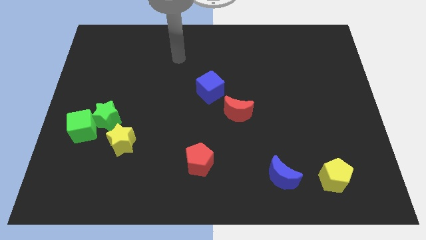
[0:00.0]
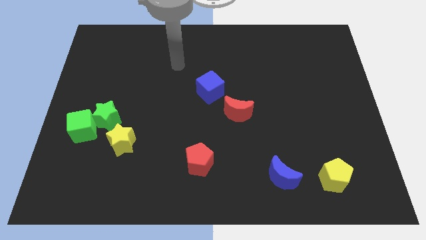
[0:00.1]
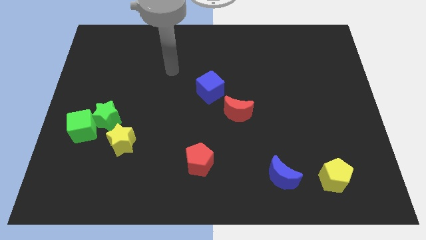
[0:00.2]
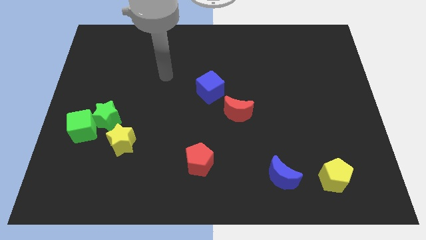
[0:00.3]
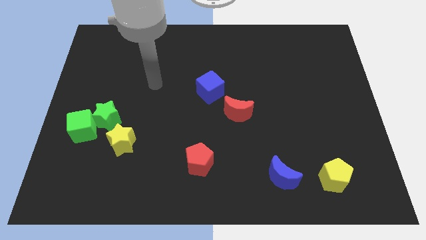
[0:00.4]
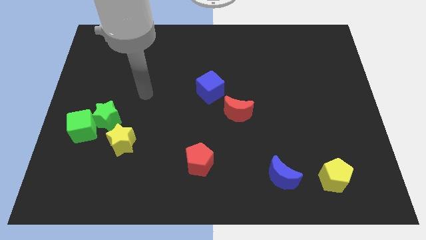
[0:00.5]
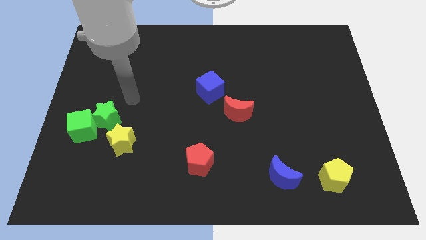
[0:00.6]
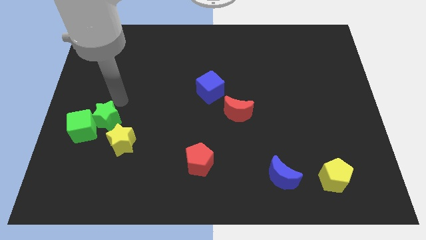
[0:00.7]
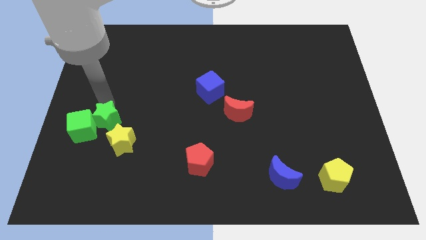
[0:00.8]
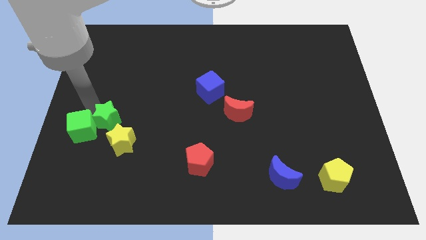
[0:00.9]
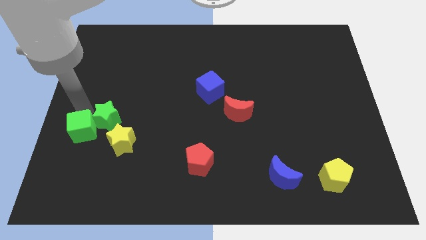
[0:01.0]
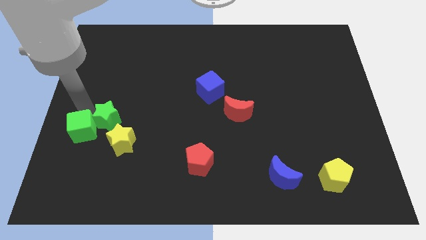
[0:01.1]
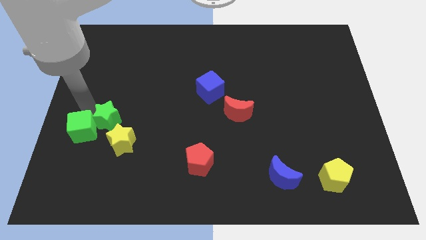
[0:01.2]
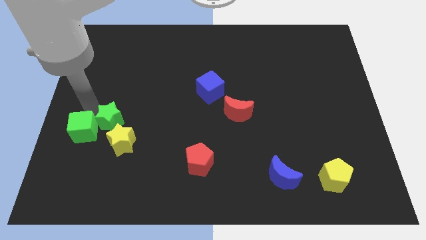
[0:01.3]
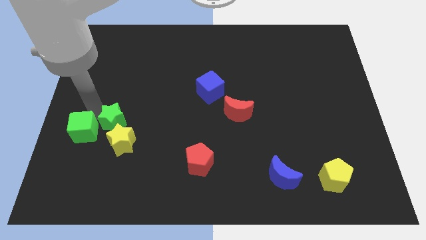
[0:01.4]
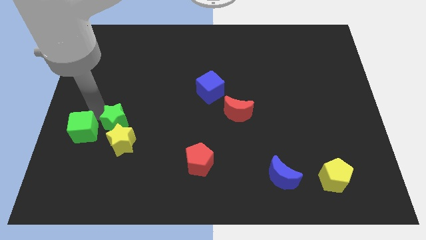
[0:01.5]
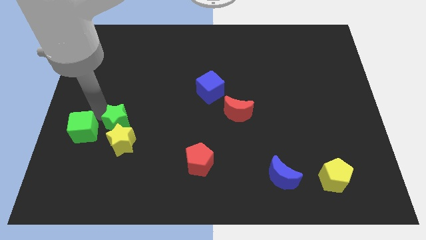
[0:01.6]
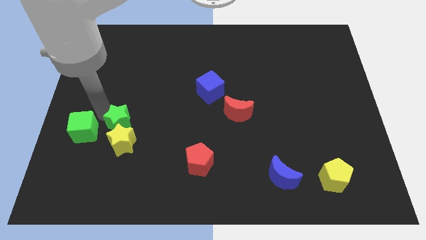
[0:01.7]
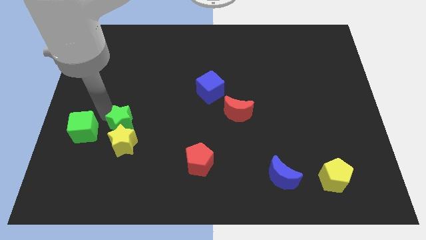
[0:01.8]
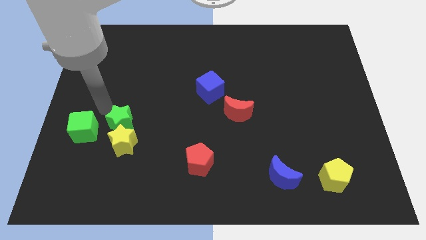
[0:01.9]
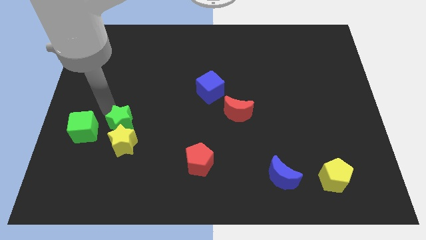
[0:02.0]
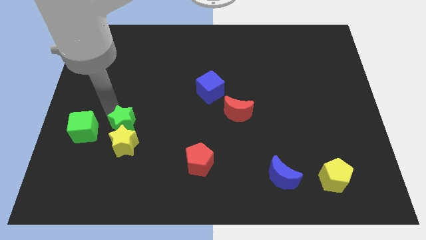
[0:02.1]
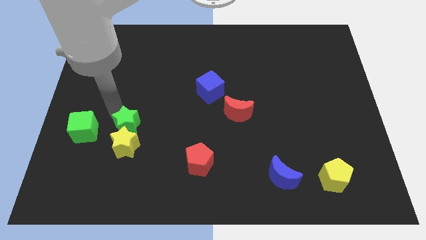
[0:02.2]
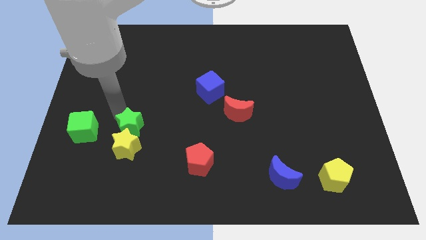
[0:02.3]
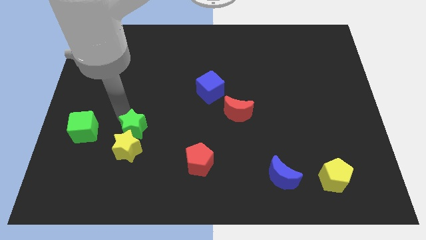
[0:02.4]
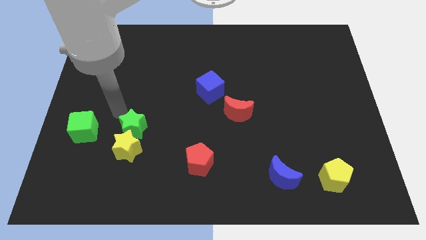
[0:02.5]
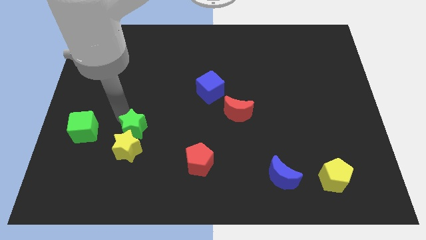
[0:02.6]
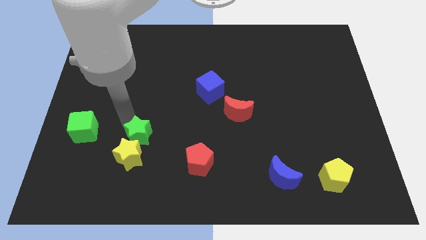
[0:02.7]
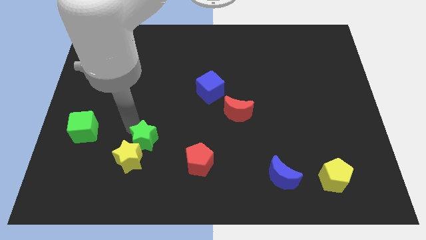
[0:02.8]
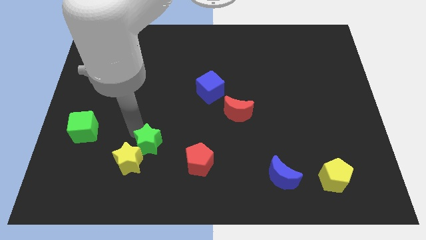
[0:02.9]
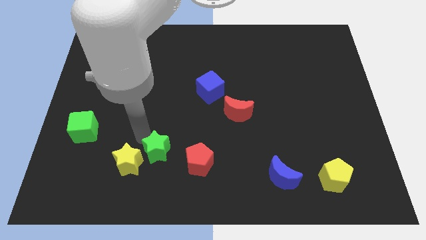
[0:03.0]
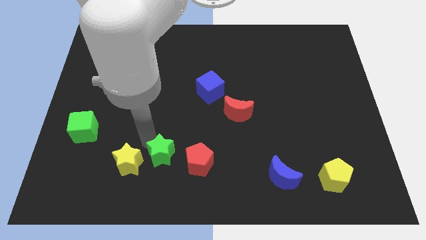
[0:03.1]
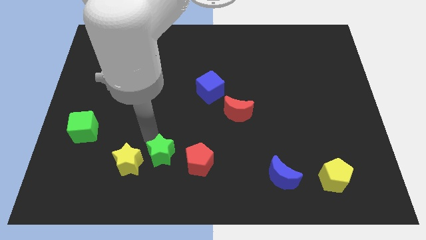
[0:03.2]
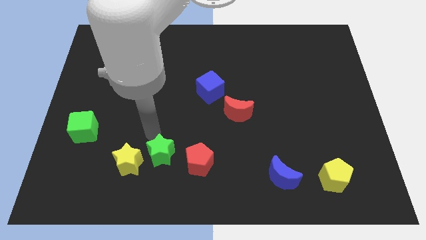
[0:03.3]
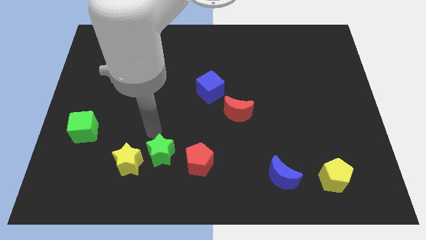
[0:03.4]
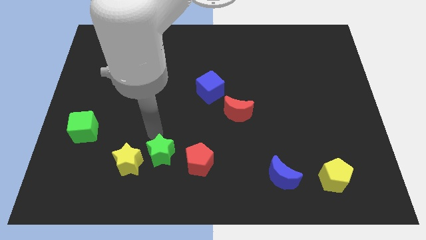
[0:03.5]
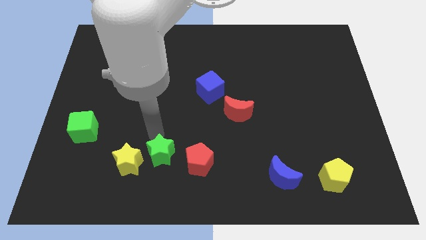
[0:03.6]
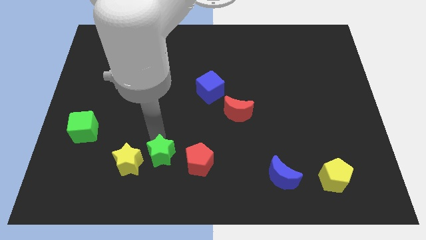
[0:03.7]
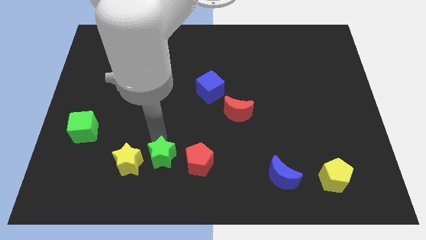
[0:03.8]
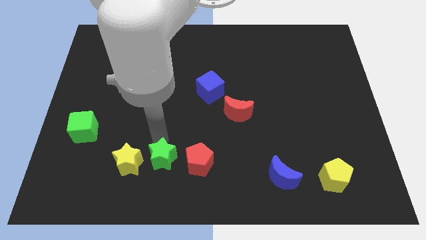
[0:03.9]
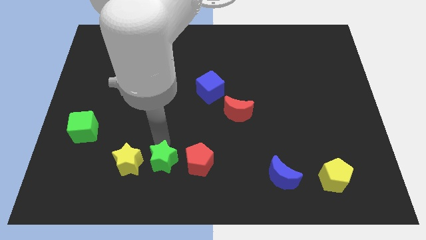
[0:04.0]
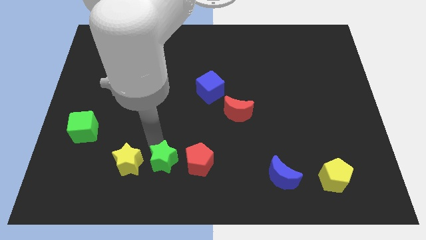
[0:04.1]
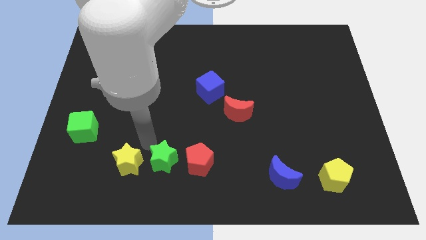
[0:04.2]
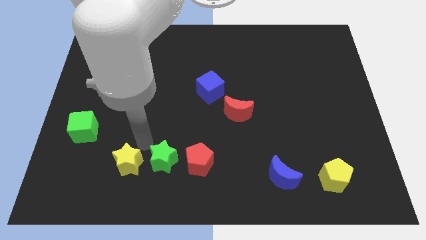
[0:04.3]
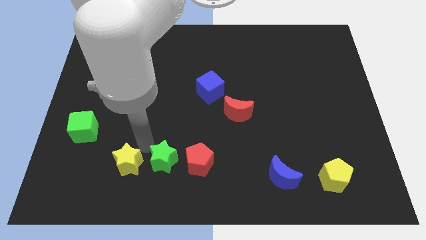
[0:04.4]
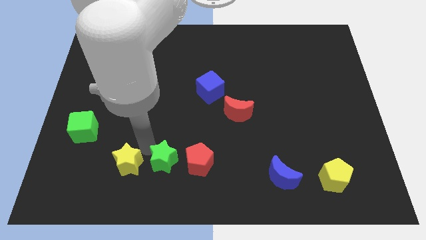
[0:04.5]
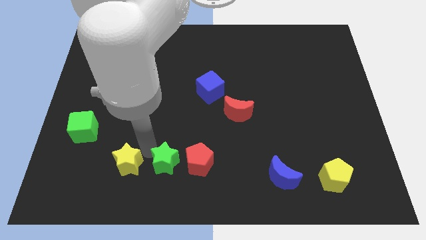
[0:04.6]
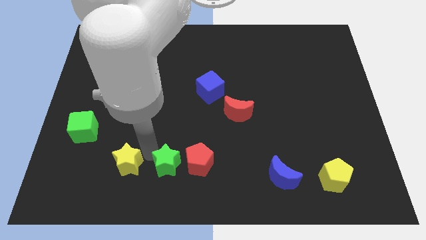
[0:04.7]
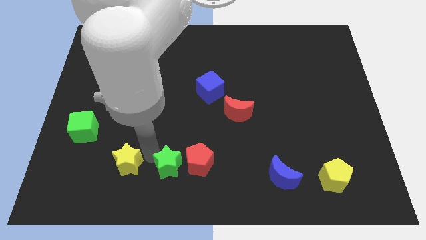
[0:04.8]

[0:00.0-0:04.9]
put the green star to the bottom

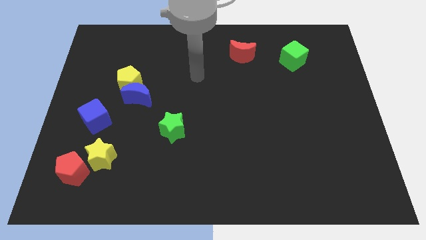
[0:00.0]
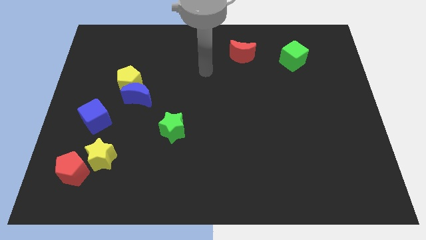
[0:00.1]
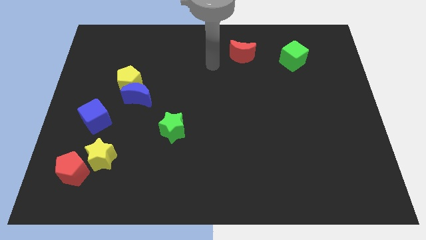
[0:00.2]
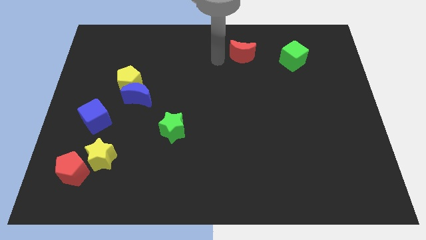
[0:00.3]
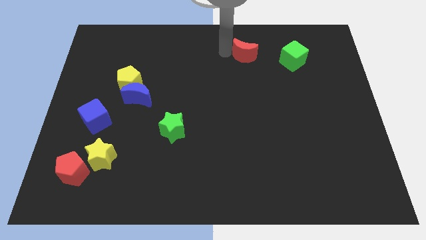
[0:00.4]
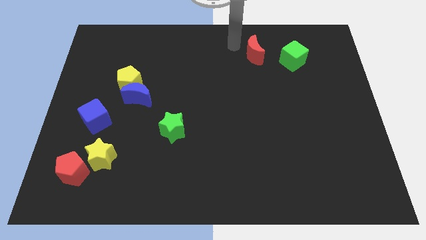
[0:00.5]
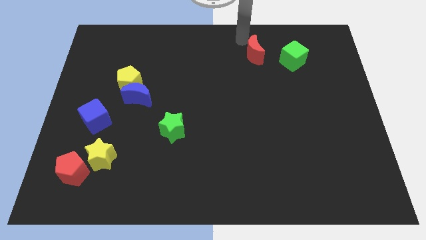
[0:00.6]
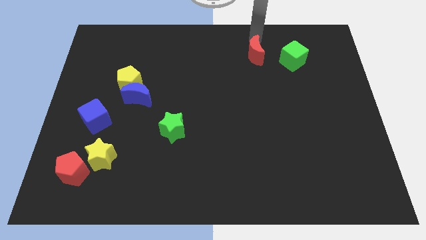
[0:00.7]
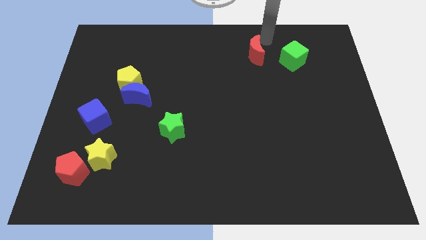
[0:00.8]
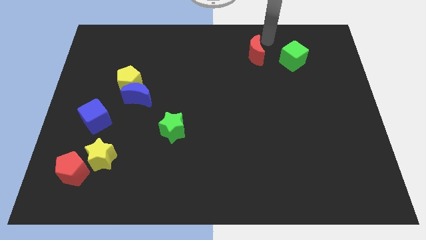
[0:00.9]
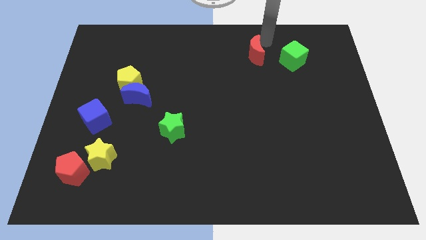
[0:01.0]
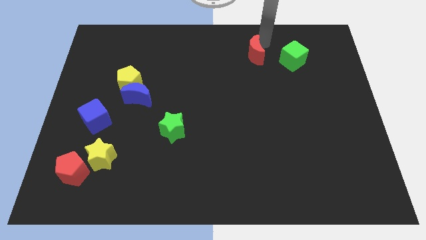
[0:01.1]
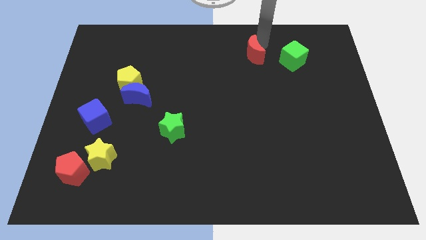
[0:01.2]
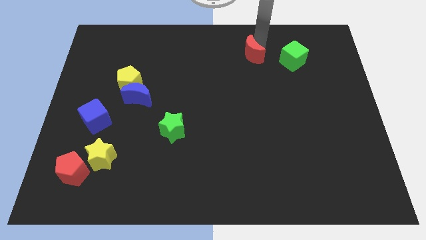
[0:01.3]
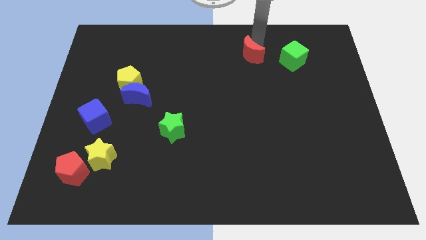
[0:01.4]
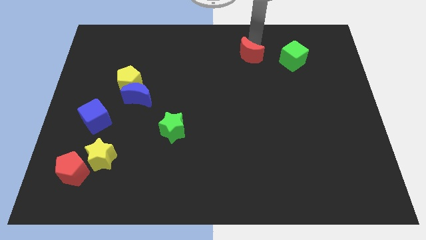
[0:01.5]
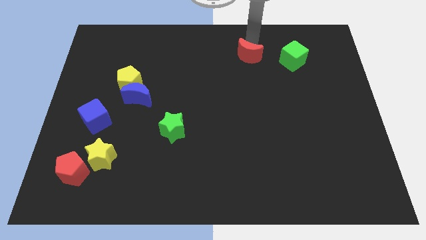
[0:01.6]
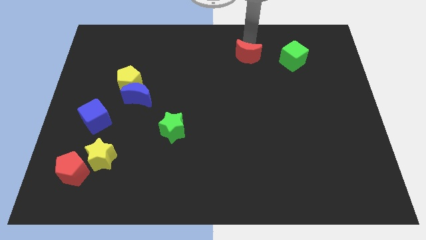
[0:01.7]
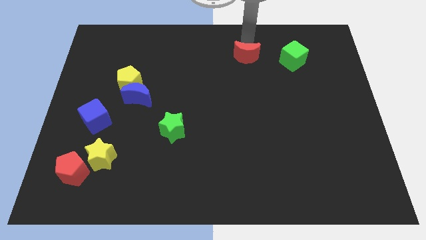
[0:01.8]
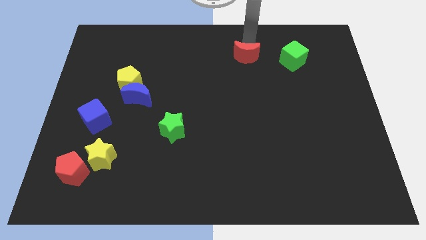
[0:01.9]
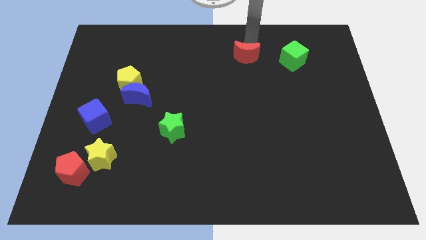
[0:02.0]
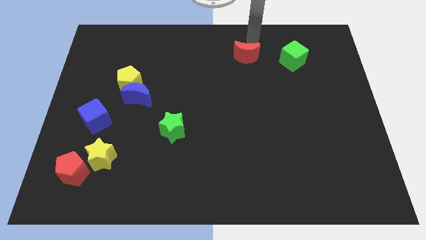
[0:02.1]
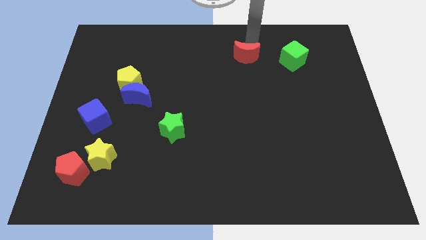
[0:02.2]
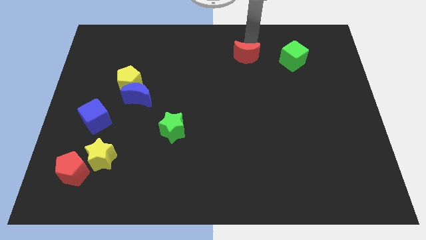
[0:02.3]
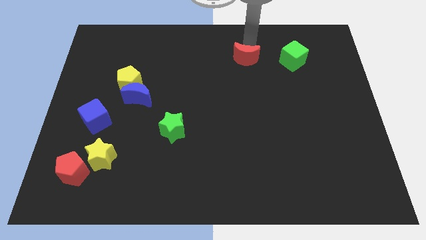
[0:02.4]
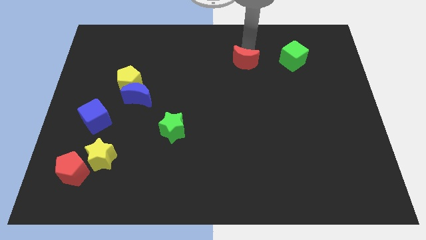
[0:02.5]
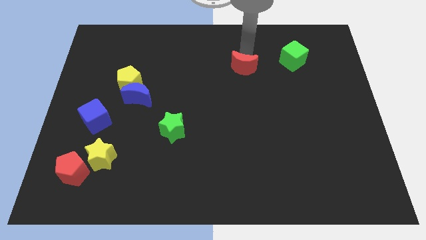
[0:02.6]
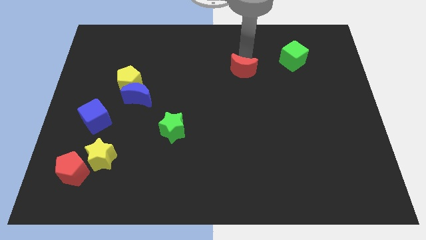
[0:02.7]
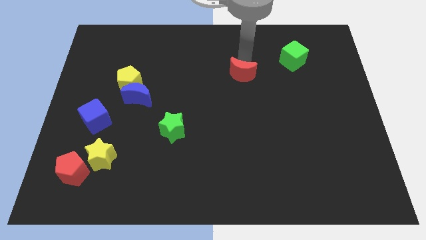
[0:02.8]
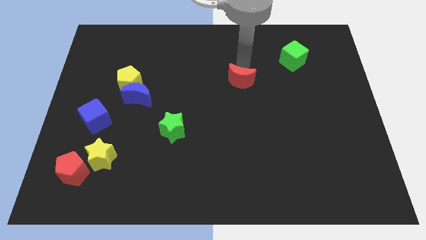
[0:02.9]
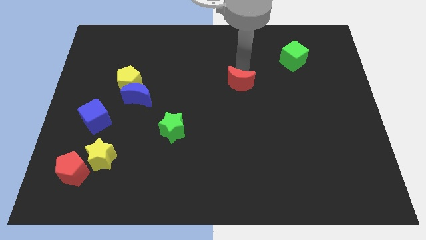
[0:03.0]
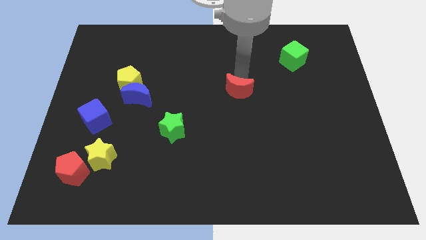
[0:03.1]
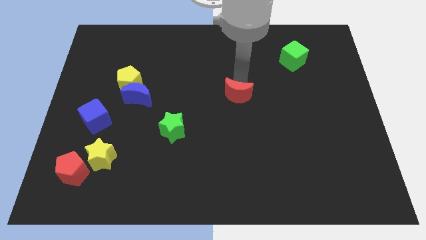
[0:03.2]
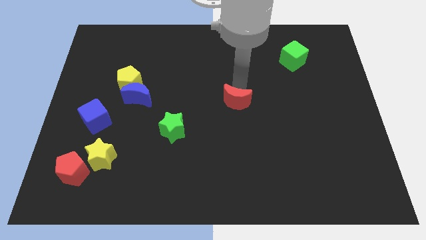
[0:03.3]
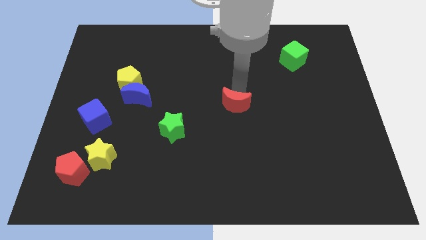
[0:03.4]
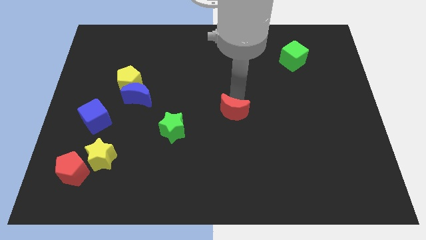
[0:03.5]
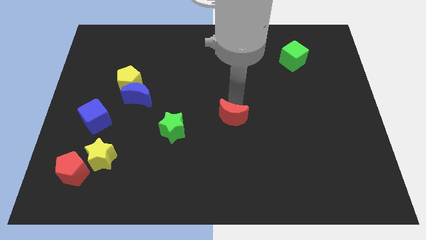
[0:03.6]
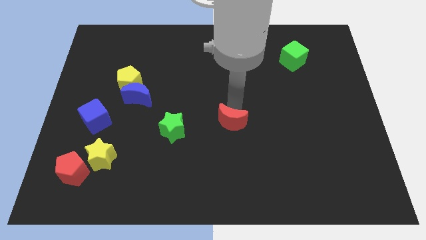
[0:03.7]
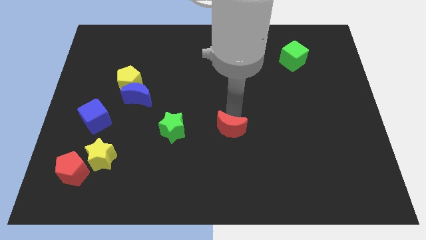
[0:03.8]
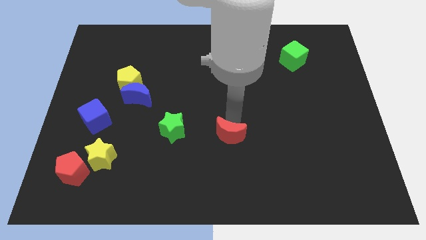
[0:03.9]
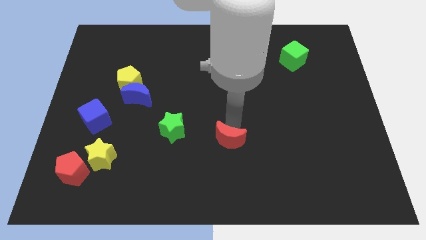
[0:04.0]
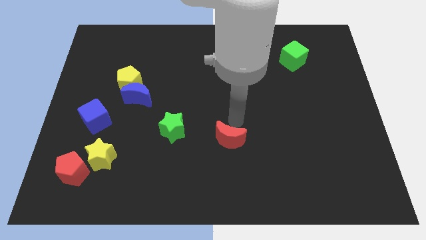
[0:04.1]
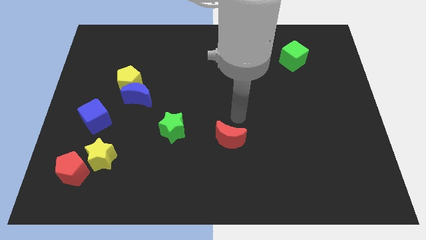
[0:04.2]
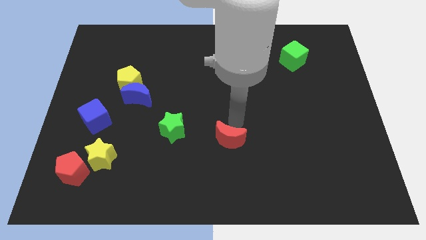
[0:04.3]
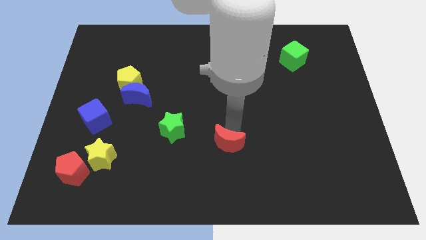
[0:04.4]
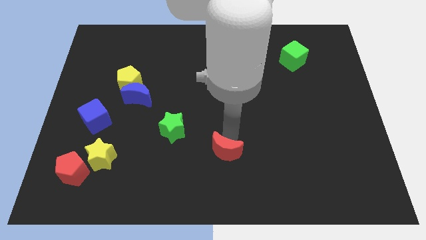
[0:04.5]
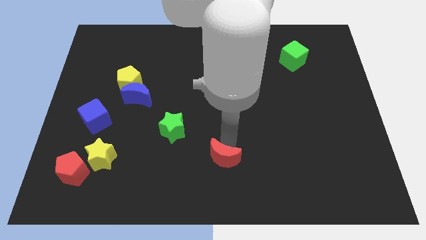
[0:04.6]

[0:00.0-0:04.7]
put the red moon to the bottom
